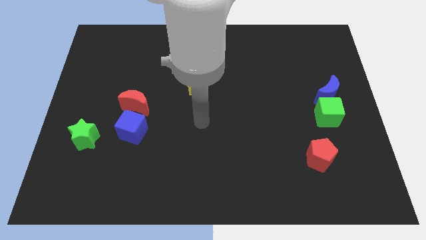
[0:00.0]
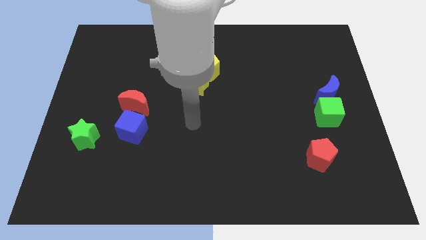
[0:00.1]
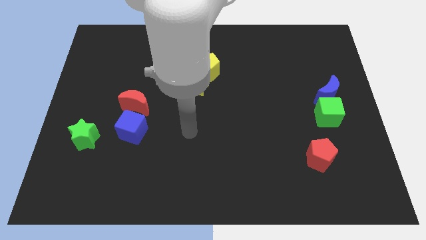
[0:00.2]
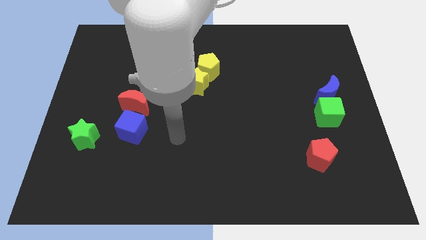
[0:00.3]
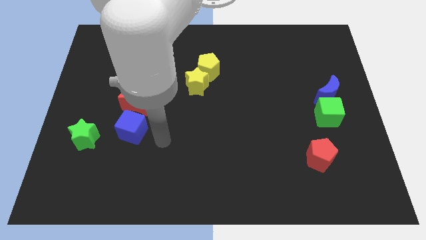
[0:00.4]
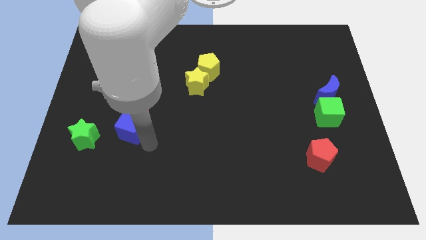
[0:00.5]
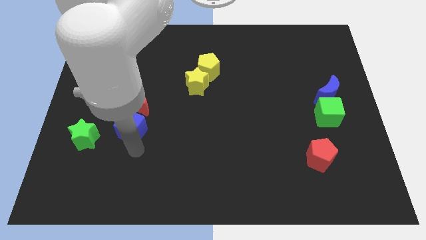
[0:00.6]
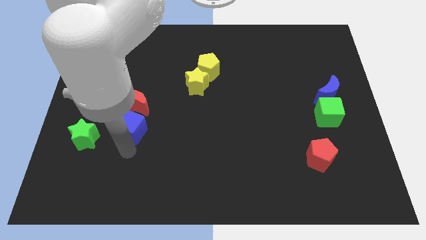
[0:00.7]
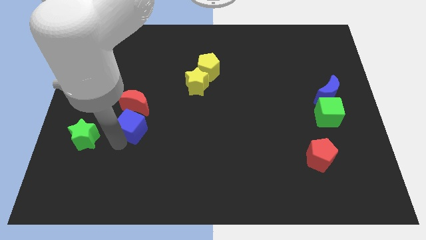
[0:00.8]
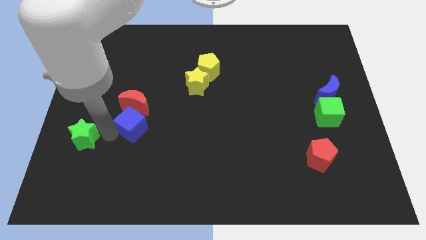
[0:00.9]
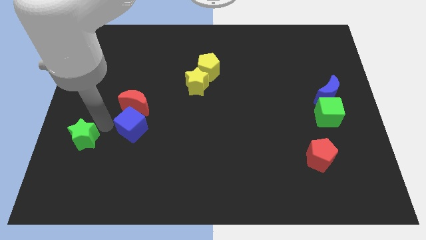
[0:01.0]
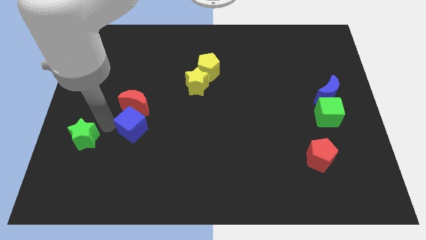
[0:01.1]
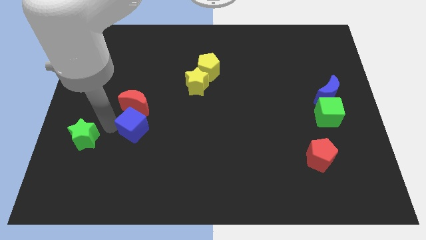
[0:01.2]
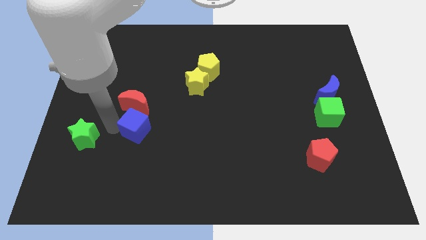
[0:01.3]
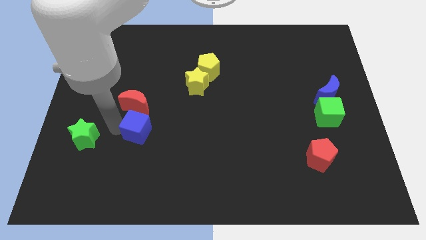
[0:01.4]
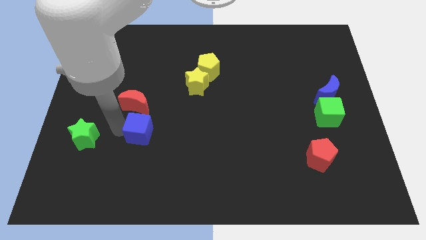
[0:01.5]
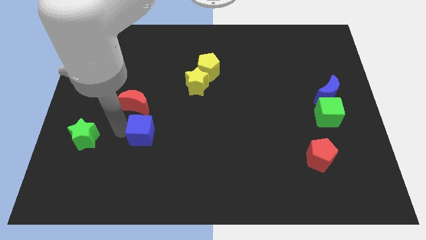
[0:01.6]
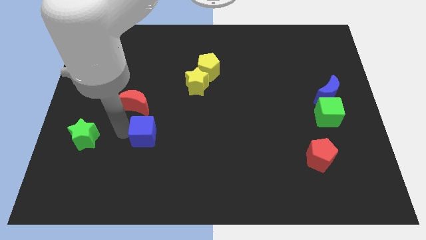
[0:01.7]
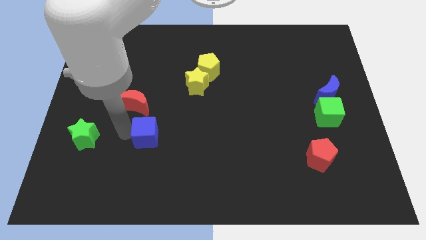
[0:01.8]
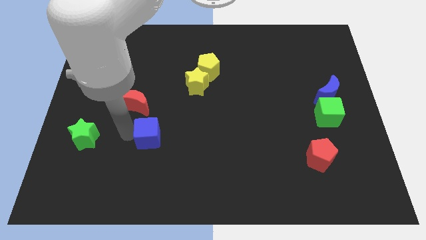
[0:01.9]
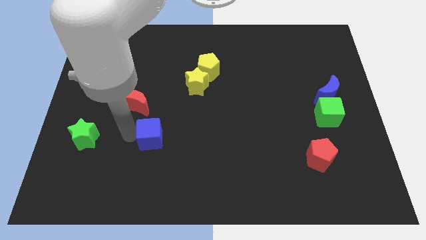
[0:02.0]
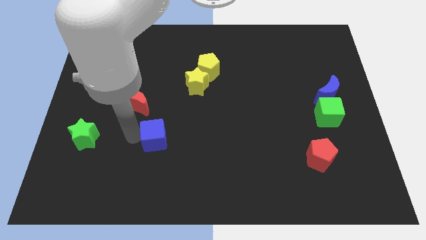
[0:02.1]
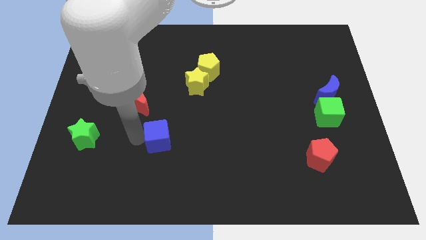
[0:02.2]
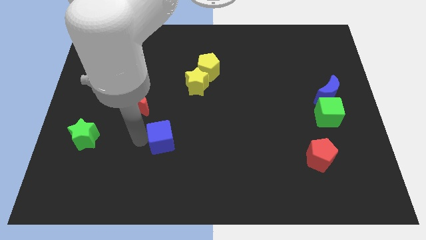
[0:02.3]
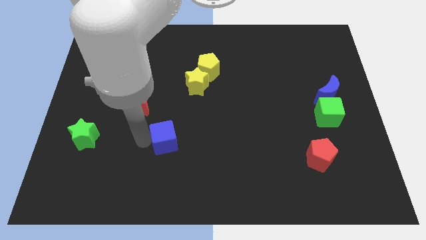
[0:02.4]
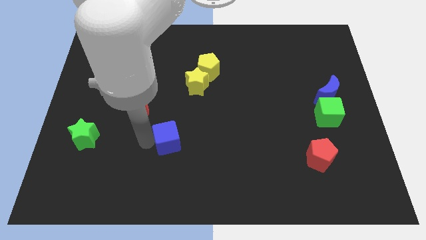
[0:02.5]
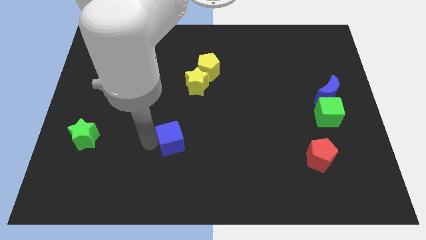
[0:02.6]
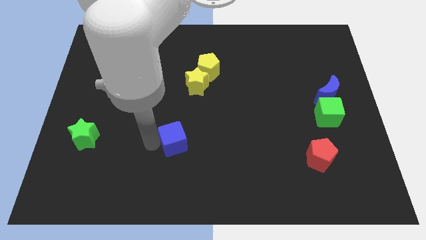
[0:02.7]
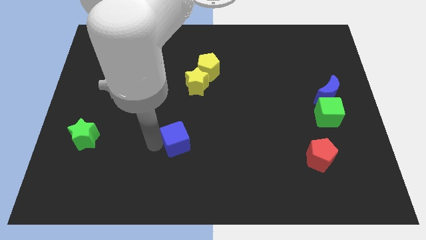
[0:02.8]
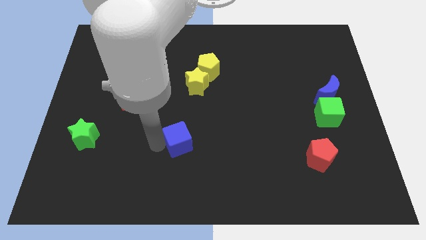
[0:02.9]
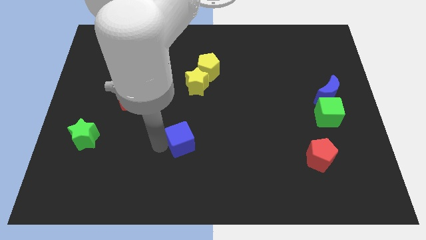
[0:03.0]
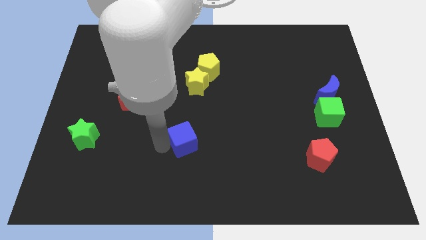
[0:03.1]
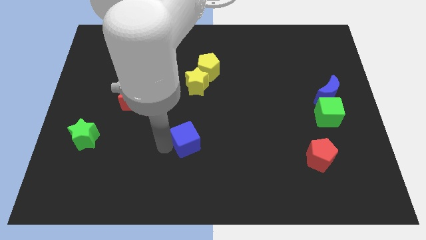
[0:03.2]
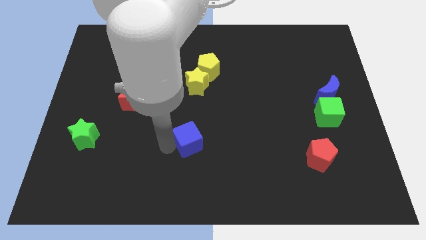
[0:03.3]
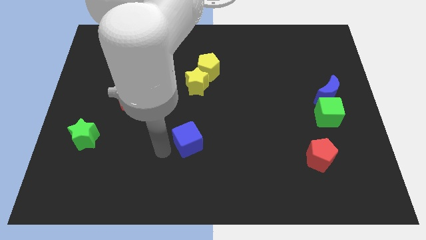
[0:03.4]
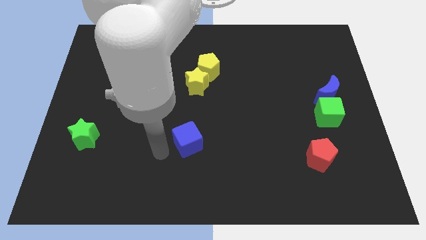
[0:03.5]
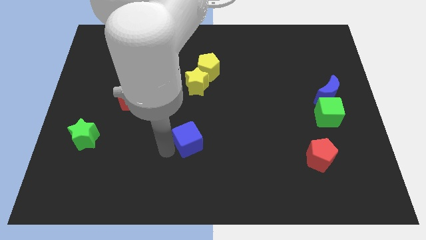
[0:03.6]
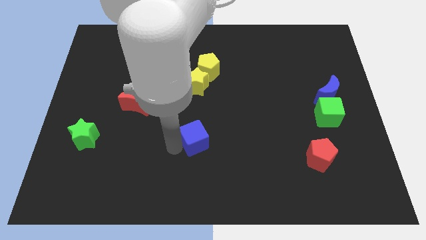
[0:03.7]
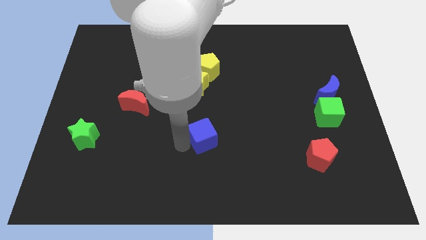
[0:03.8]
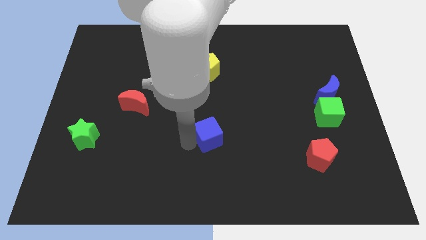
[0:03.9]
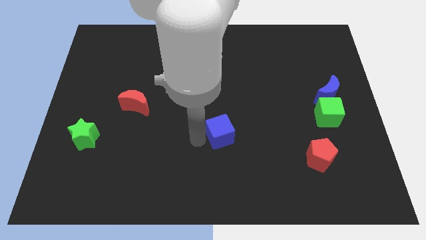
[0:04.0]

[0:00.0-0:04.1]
move the blue cube to the right

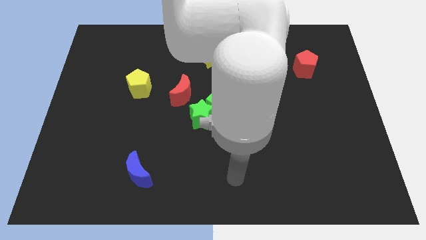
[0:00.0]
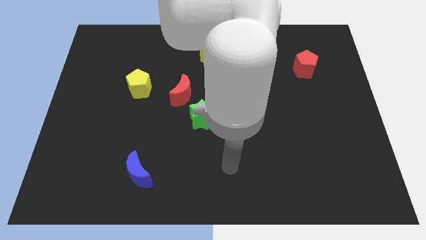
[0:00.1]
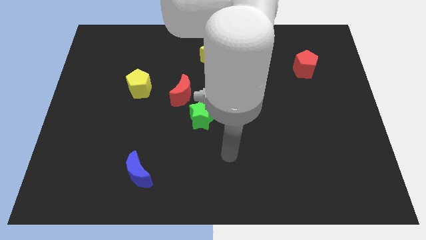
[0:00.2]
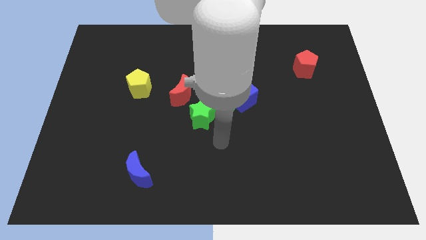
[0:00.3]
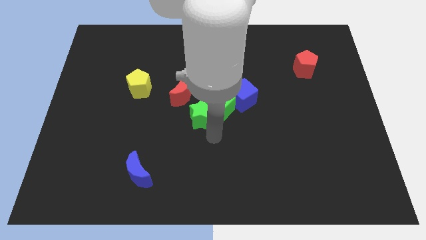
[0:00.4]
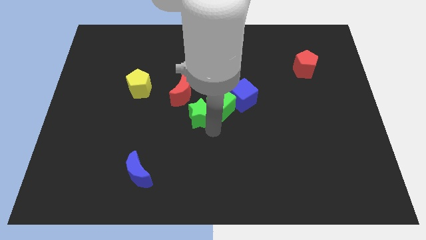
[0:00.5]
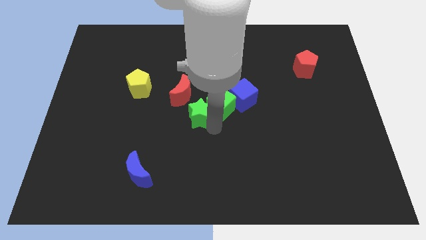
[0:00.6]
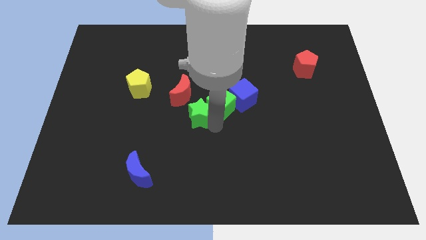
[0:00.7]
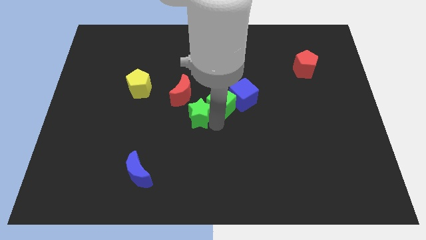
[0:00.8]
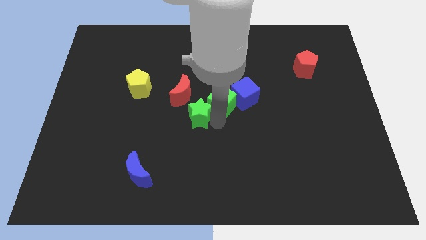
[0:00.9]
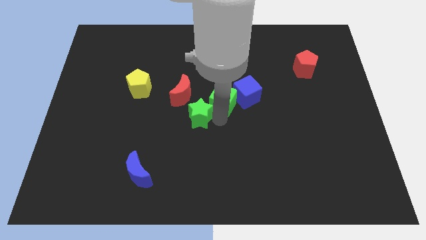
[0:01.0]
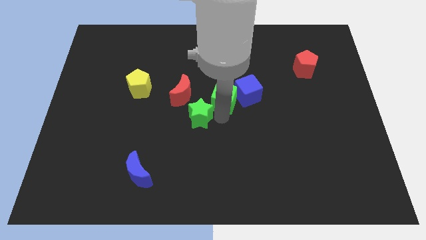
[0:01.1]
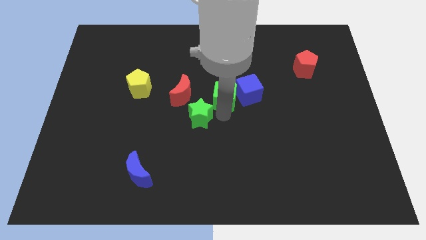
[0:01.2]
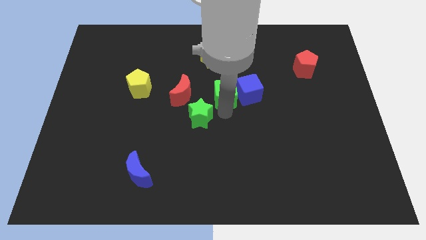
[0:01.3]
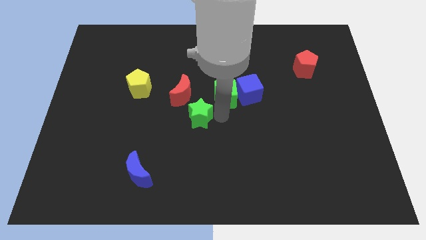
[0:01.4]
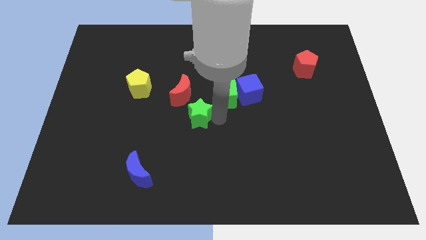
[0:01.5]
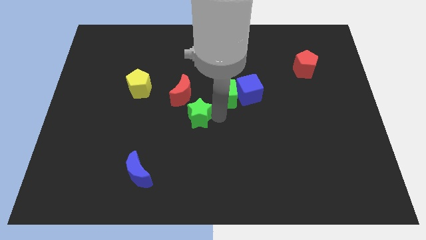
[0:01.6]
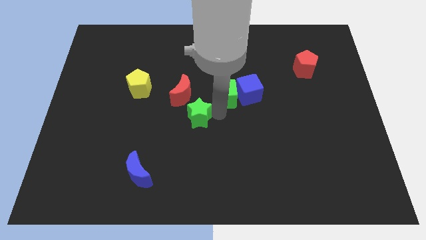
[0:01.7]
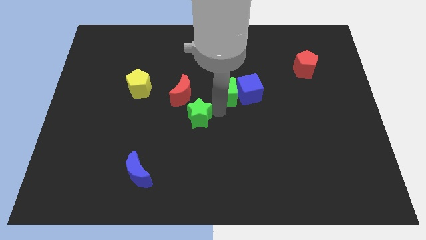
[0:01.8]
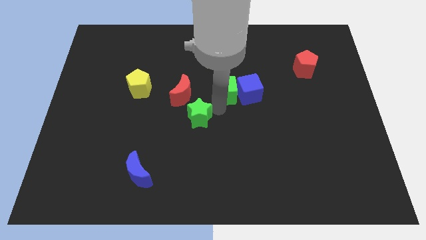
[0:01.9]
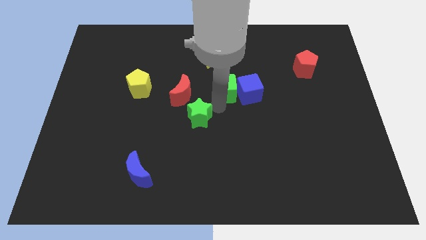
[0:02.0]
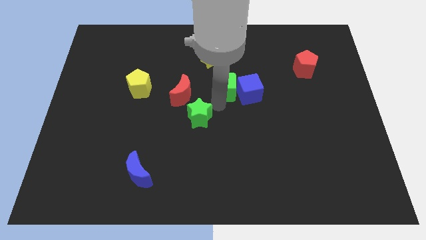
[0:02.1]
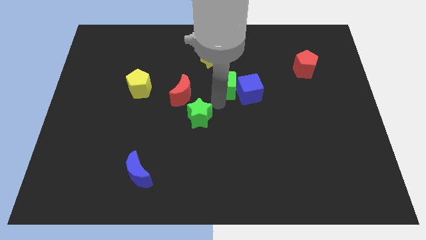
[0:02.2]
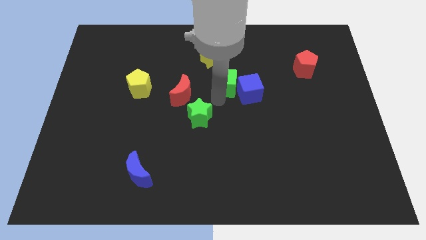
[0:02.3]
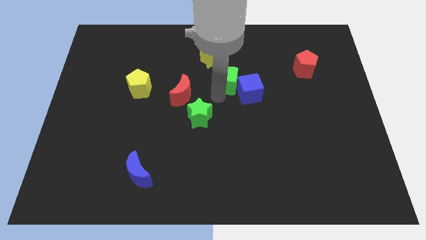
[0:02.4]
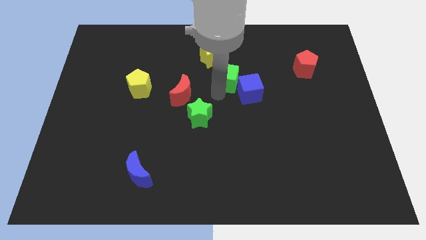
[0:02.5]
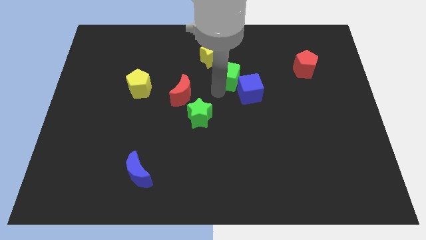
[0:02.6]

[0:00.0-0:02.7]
slightly push the green cube diagonally up and right

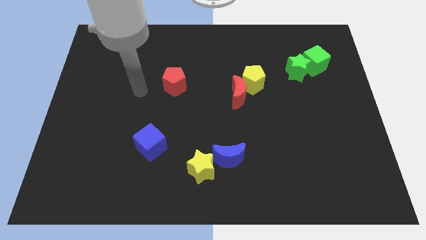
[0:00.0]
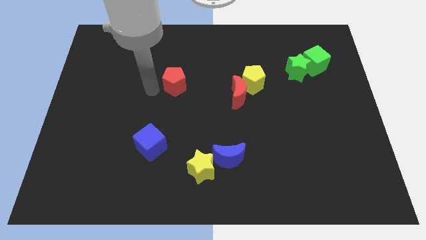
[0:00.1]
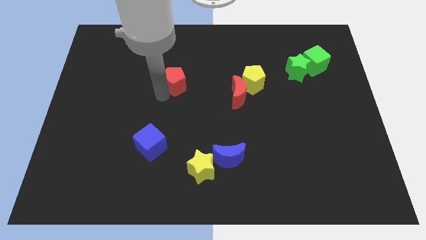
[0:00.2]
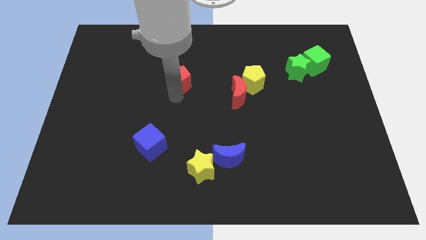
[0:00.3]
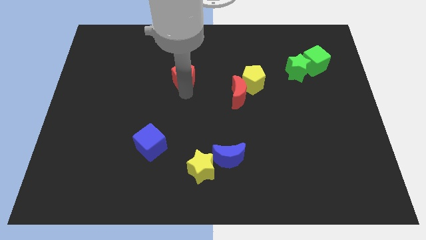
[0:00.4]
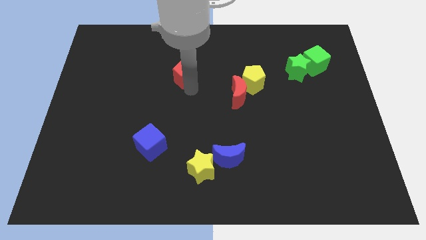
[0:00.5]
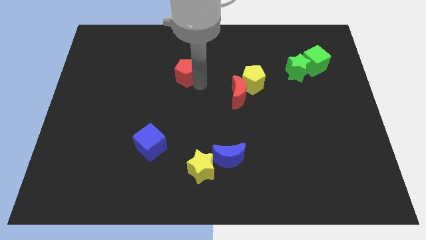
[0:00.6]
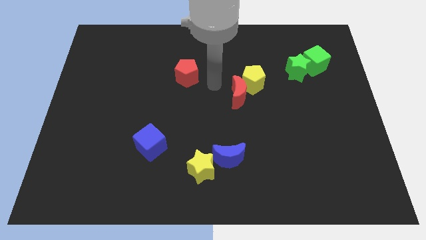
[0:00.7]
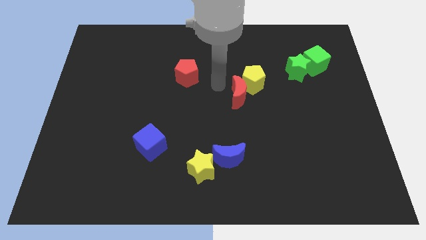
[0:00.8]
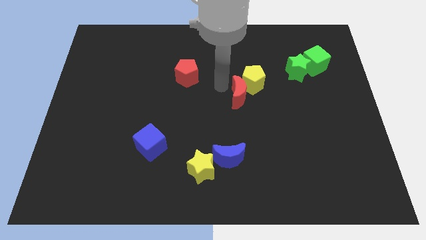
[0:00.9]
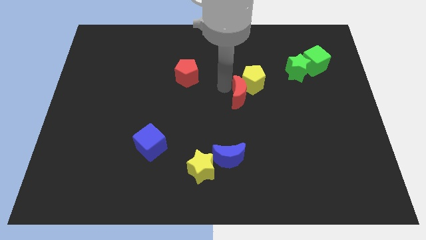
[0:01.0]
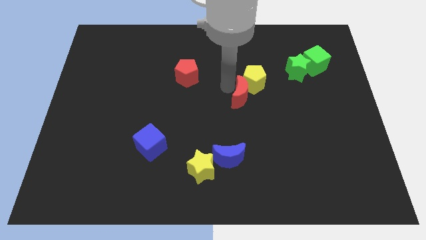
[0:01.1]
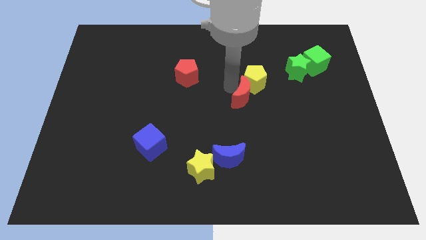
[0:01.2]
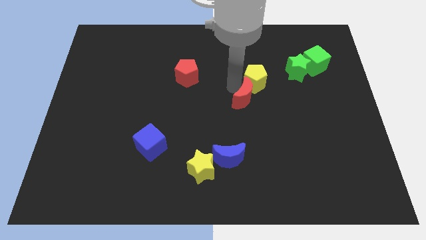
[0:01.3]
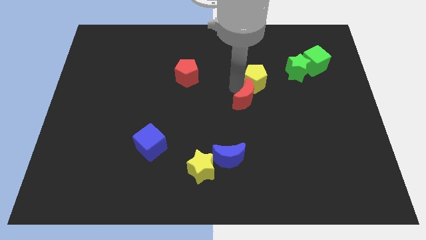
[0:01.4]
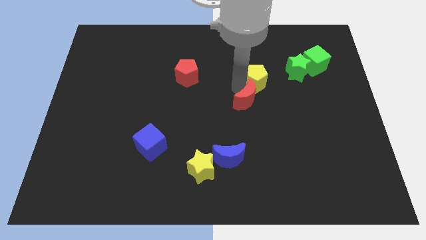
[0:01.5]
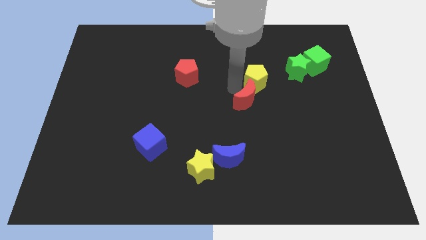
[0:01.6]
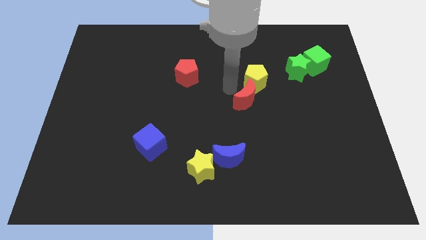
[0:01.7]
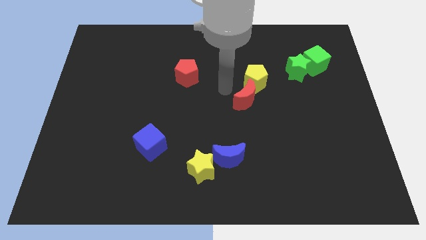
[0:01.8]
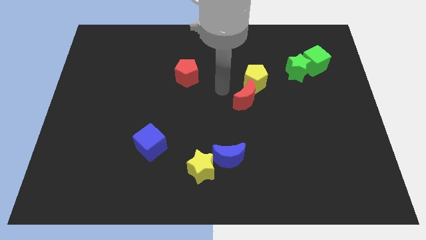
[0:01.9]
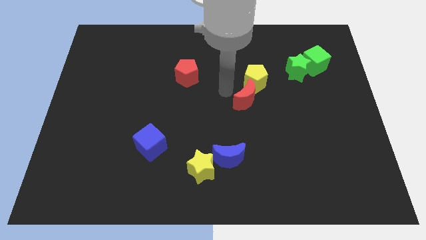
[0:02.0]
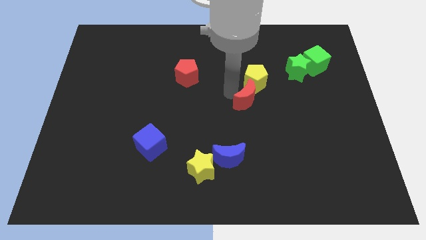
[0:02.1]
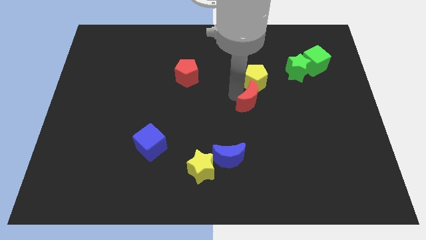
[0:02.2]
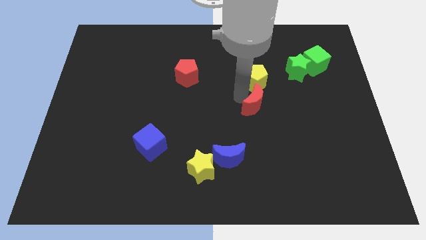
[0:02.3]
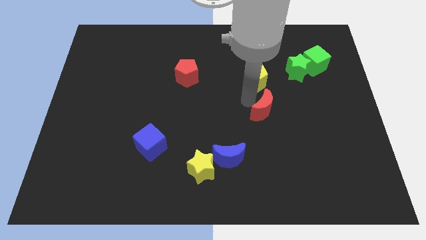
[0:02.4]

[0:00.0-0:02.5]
move the red moon diagonally down and to the right somewhat
